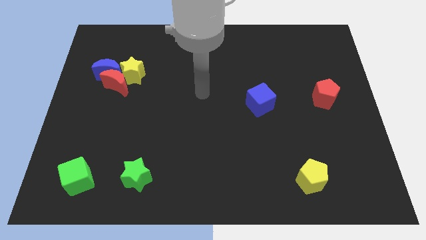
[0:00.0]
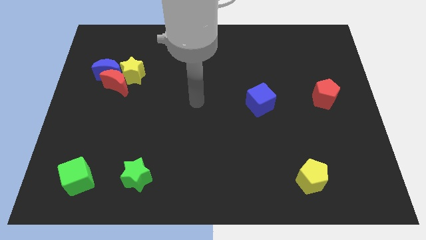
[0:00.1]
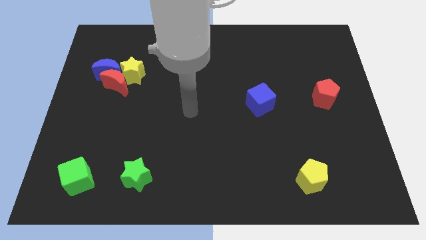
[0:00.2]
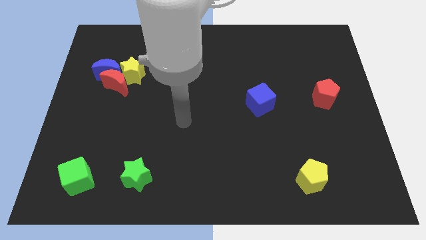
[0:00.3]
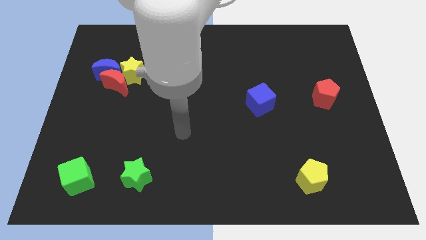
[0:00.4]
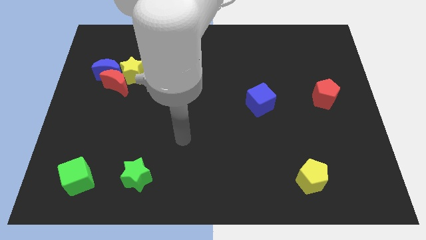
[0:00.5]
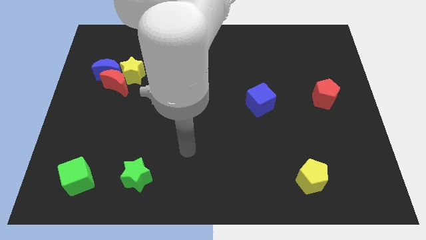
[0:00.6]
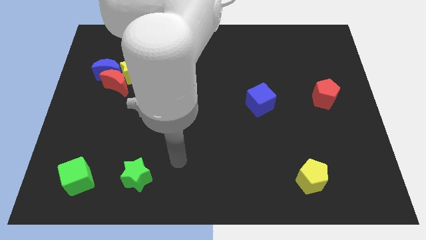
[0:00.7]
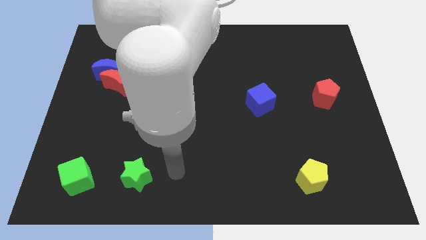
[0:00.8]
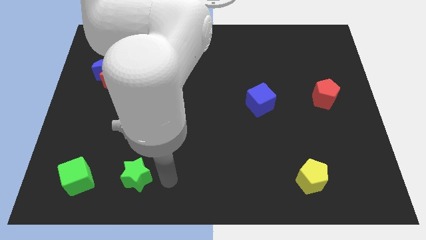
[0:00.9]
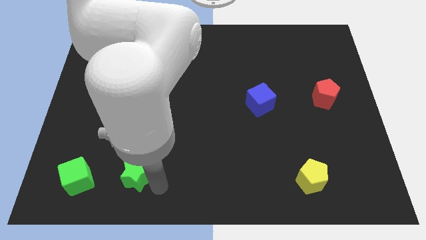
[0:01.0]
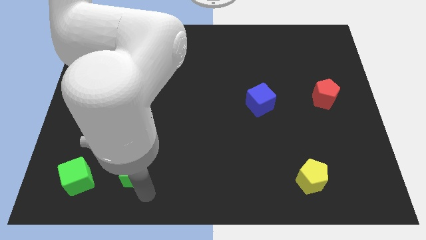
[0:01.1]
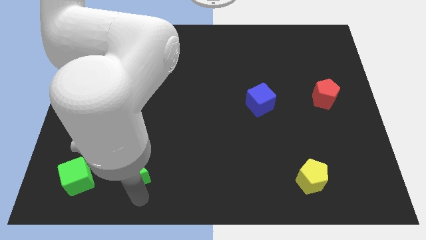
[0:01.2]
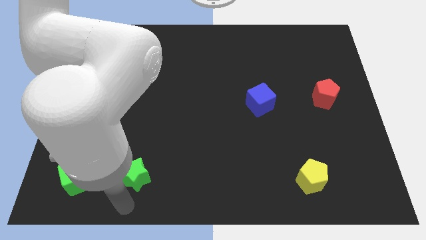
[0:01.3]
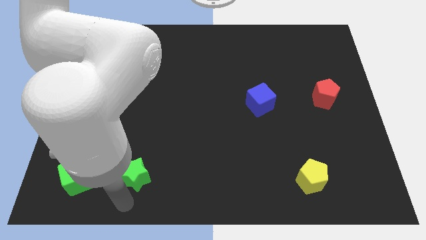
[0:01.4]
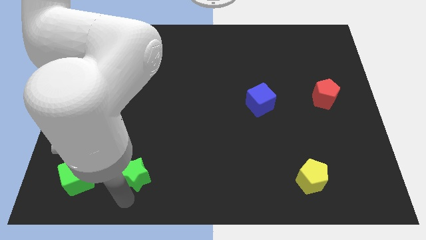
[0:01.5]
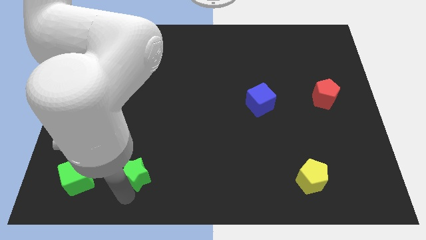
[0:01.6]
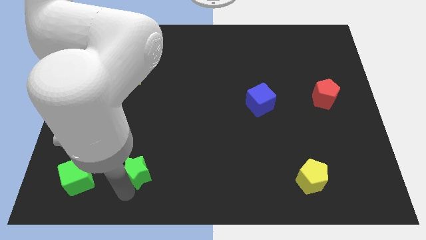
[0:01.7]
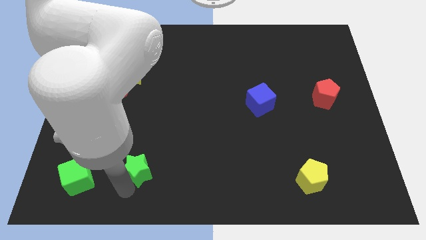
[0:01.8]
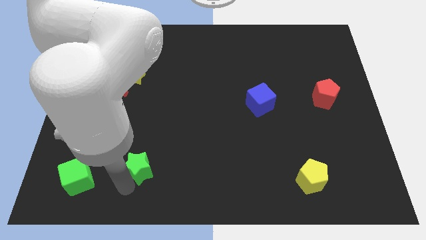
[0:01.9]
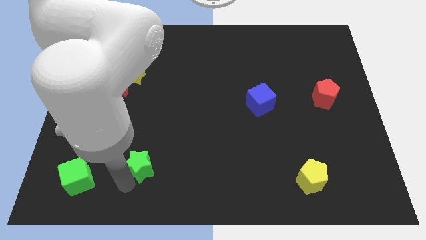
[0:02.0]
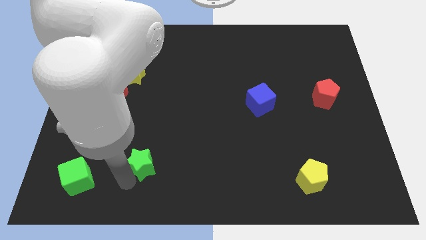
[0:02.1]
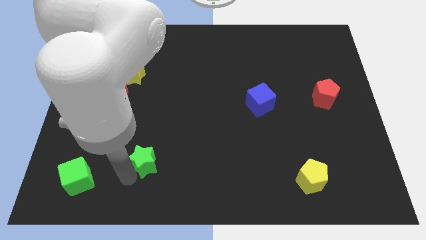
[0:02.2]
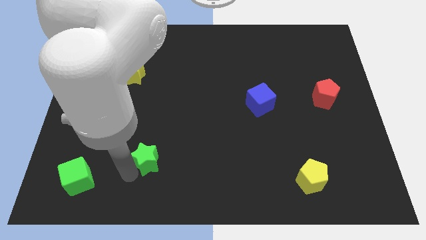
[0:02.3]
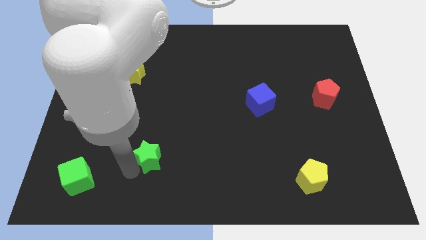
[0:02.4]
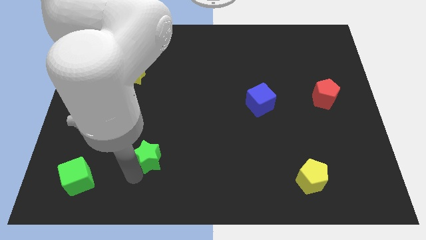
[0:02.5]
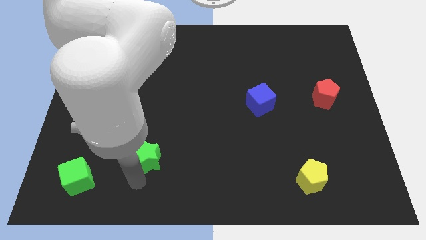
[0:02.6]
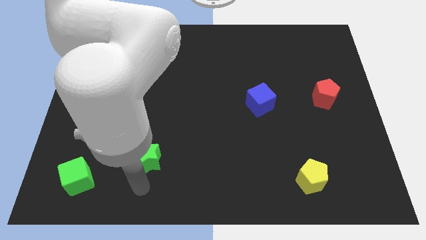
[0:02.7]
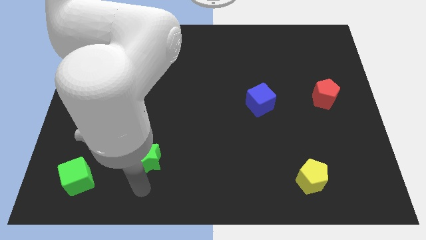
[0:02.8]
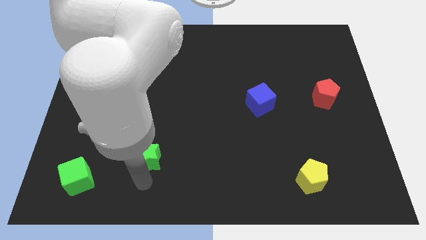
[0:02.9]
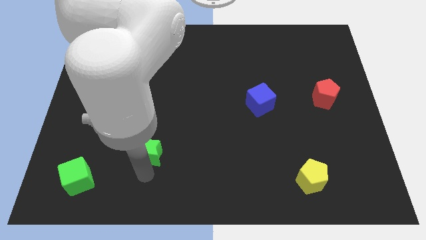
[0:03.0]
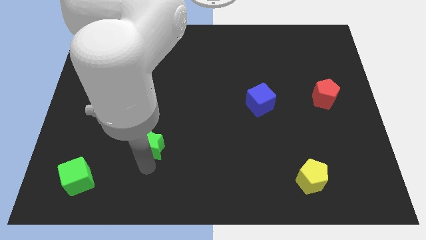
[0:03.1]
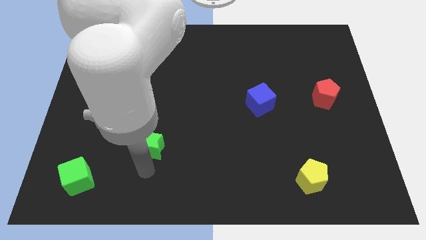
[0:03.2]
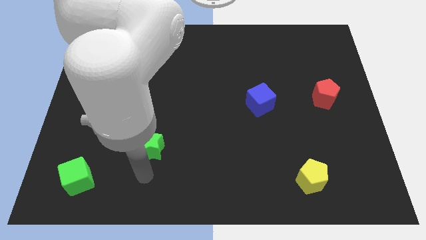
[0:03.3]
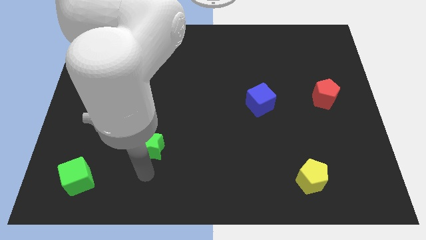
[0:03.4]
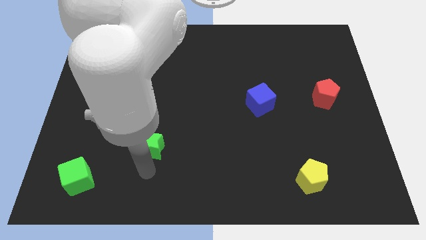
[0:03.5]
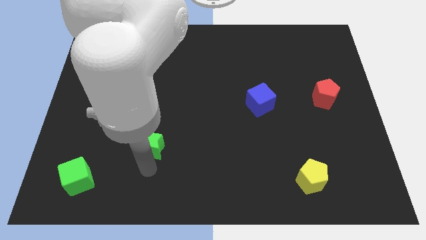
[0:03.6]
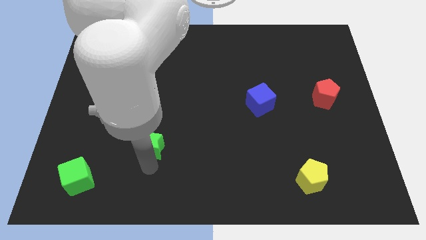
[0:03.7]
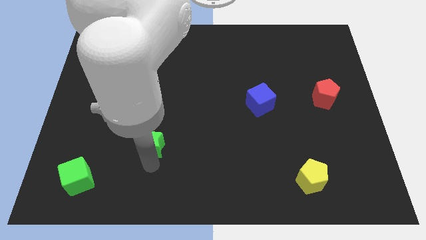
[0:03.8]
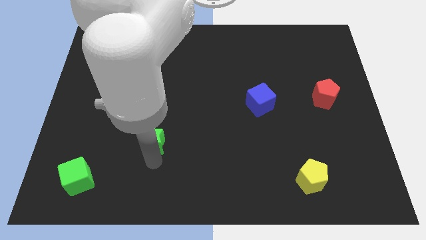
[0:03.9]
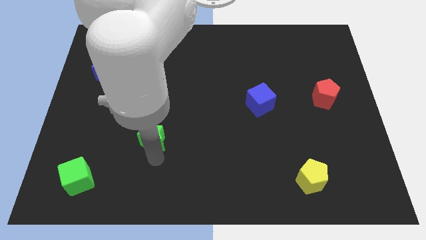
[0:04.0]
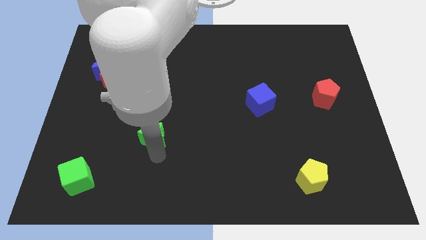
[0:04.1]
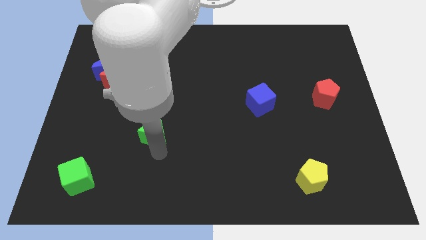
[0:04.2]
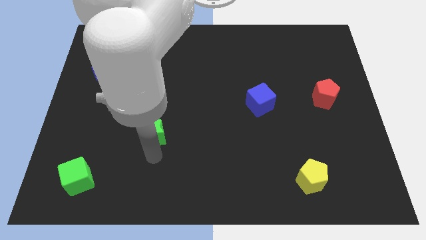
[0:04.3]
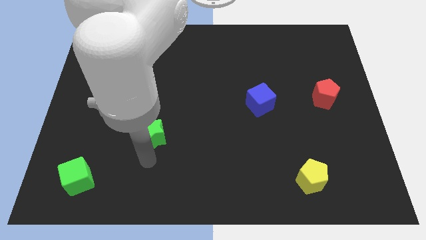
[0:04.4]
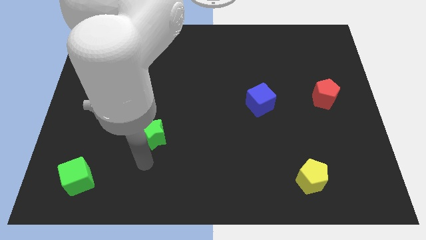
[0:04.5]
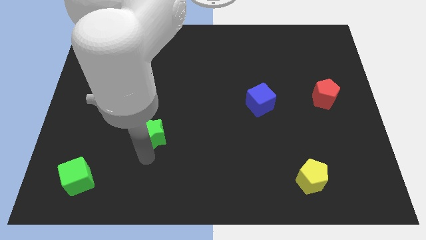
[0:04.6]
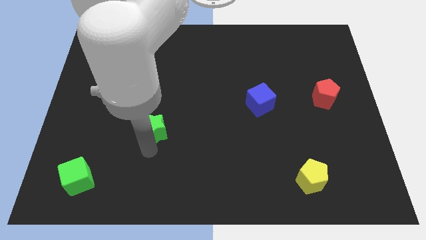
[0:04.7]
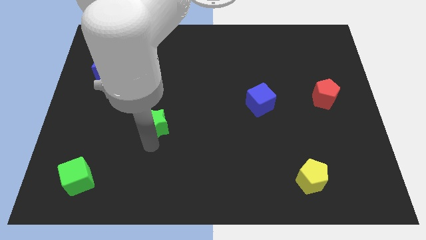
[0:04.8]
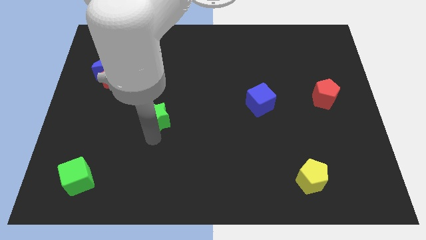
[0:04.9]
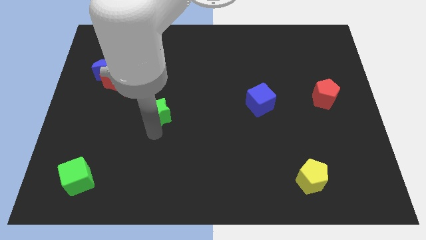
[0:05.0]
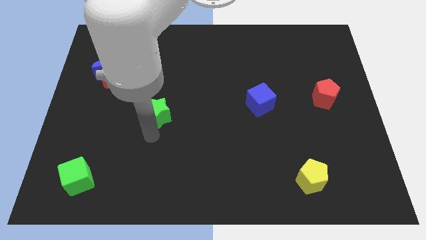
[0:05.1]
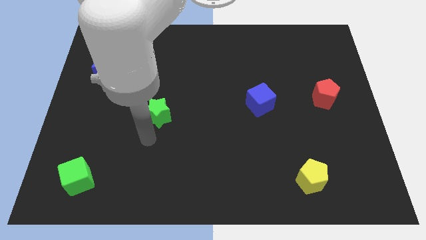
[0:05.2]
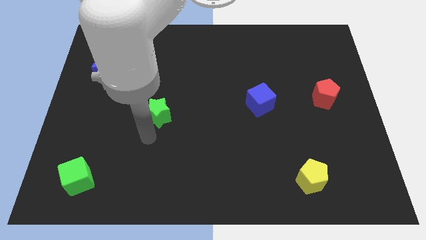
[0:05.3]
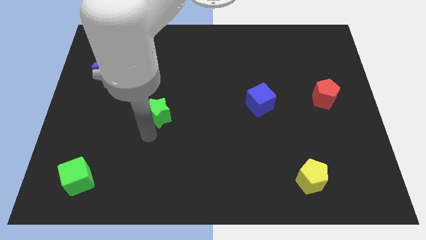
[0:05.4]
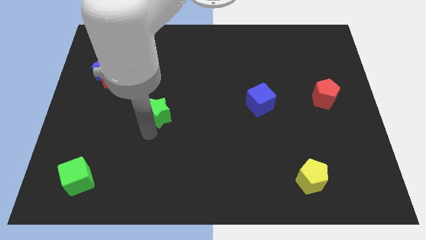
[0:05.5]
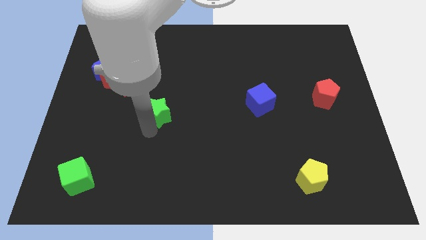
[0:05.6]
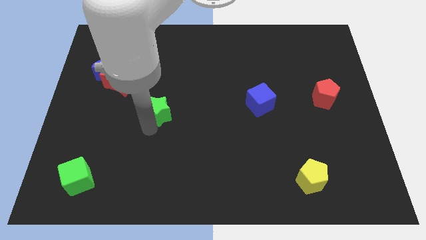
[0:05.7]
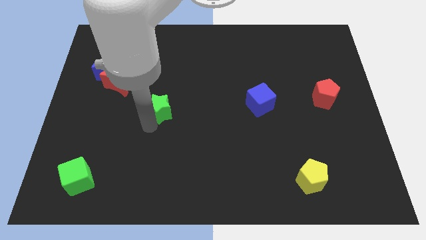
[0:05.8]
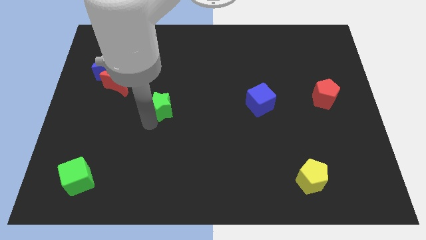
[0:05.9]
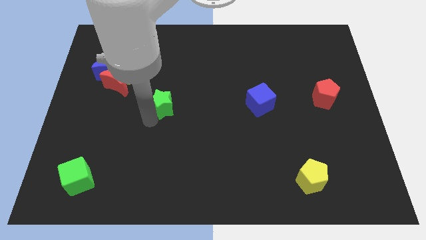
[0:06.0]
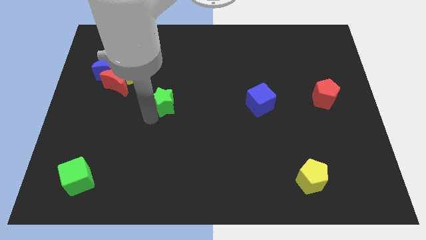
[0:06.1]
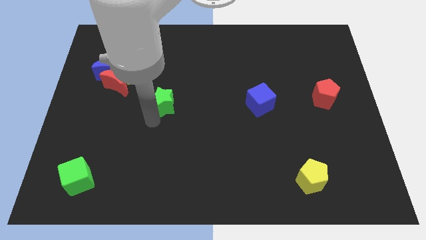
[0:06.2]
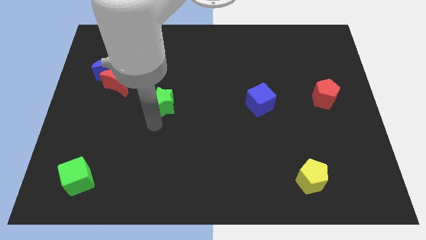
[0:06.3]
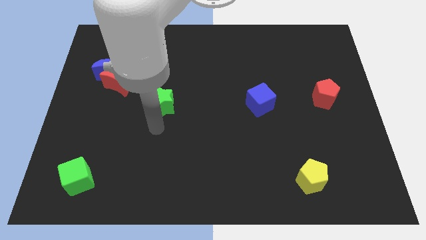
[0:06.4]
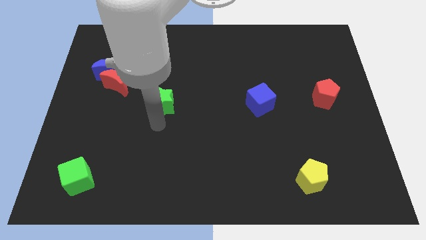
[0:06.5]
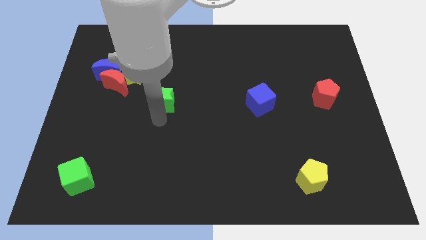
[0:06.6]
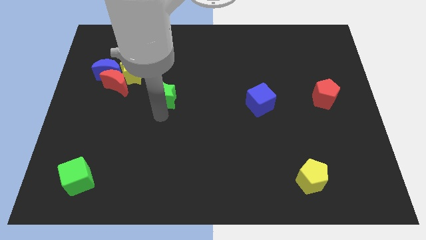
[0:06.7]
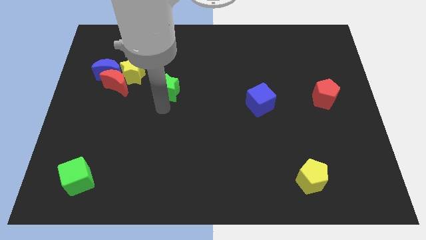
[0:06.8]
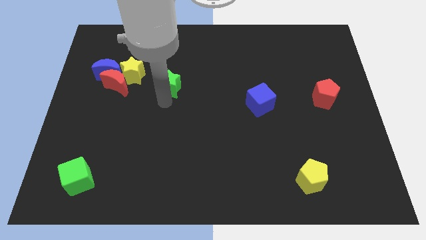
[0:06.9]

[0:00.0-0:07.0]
slide the green star to the right of the yellow star

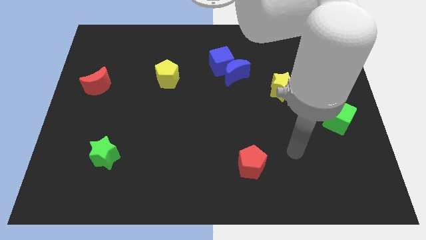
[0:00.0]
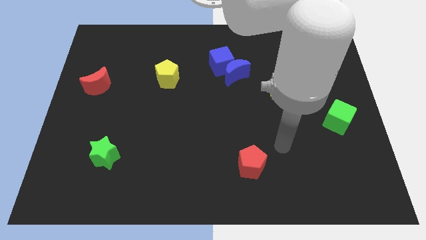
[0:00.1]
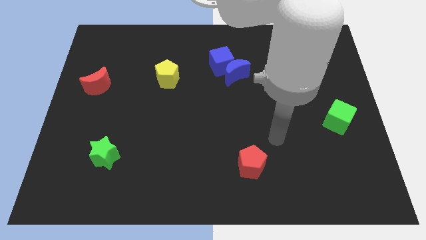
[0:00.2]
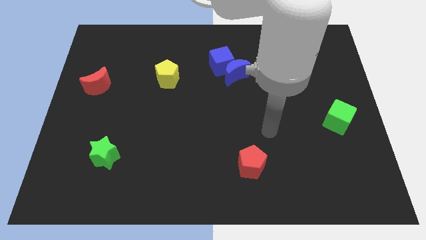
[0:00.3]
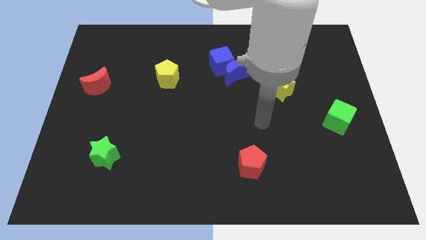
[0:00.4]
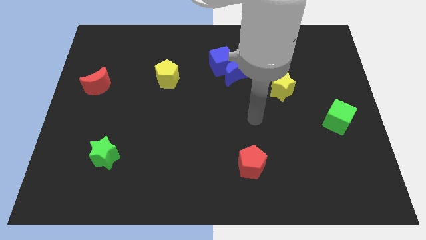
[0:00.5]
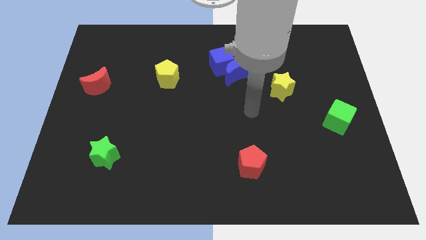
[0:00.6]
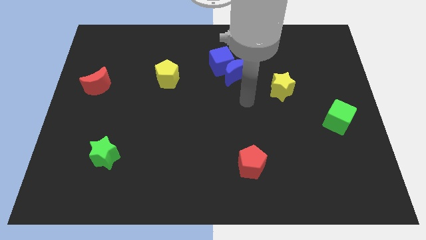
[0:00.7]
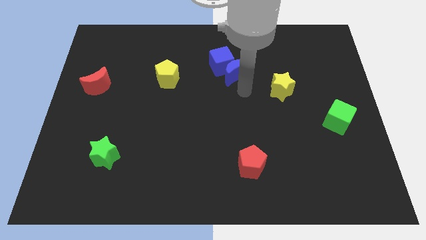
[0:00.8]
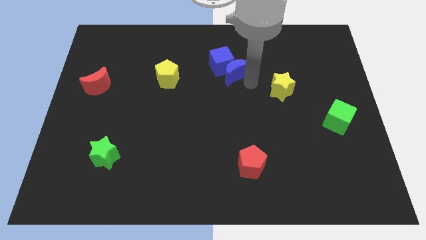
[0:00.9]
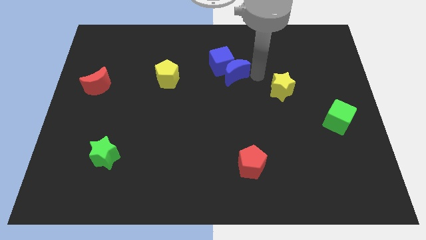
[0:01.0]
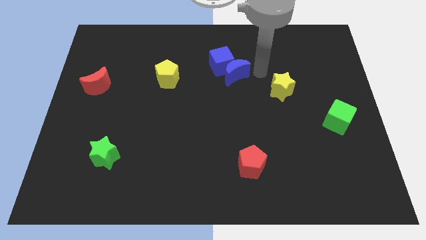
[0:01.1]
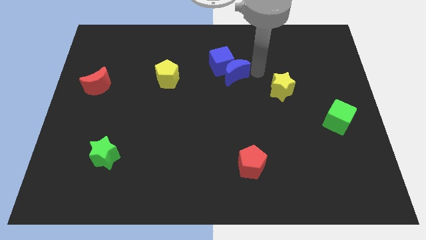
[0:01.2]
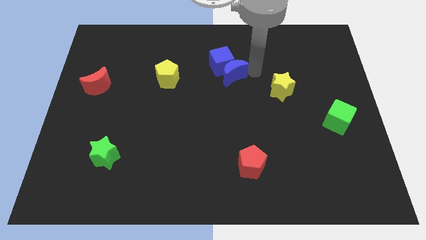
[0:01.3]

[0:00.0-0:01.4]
put the blue moon right of the yellow pentagon
